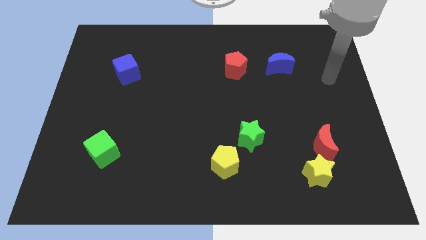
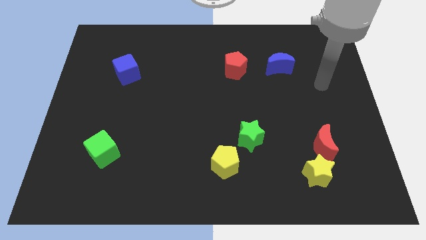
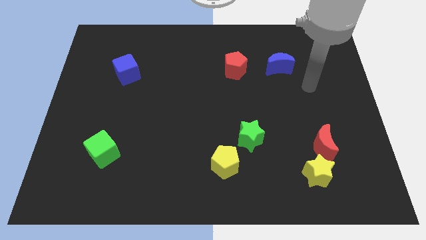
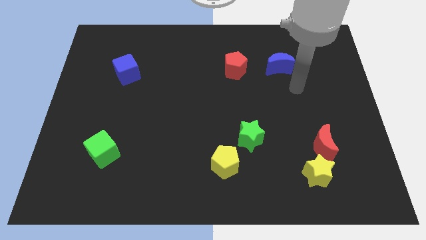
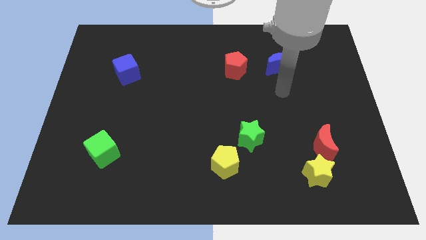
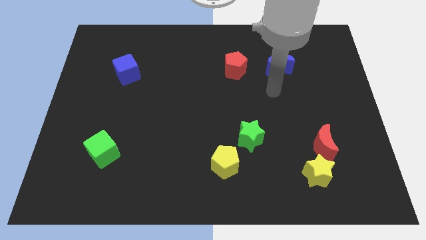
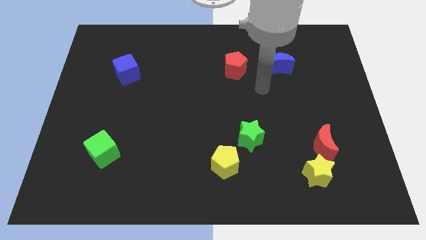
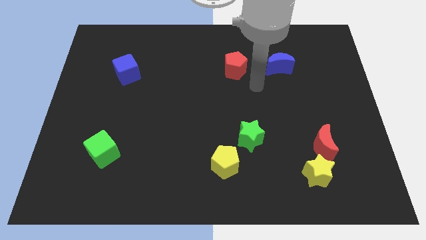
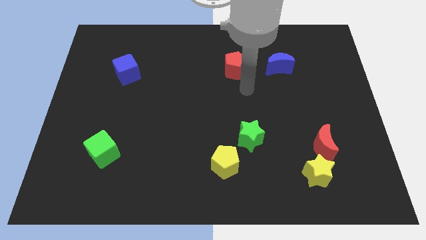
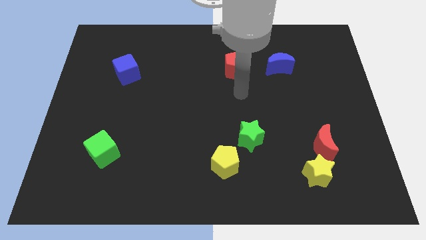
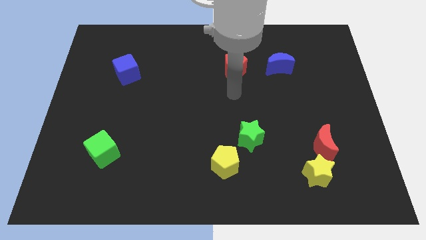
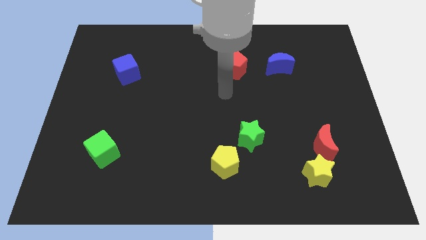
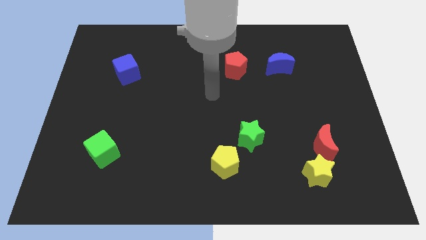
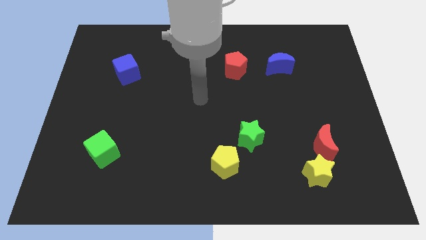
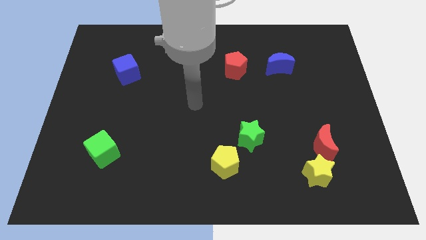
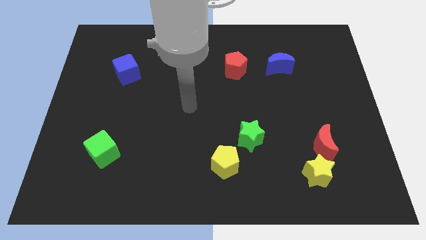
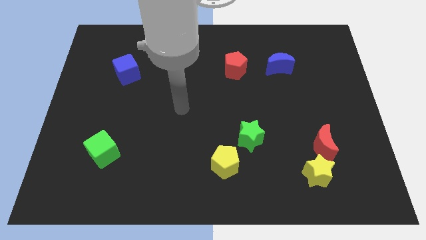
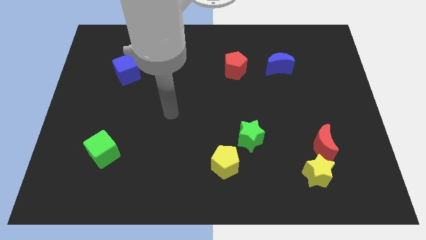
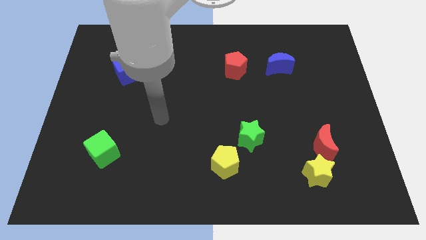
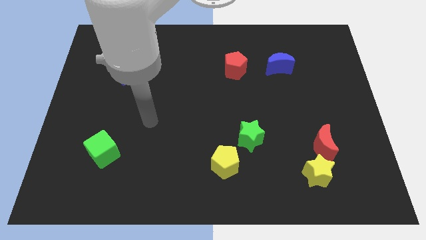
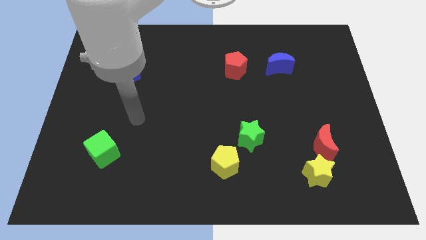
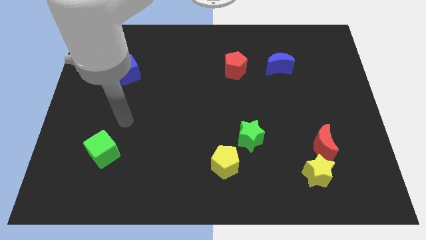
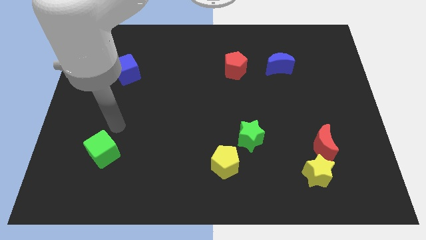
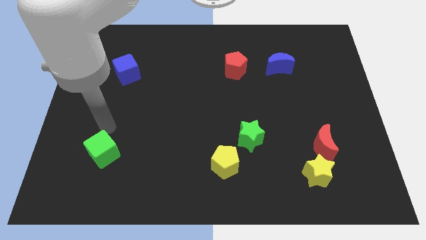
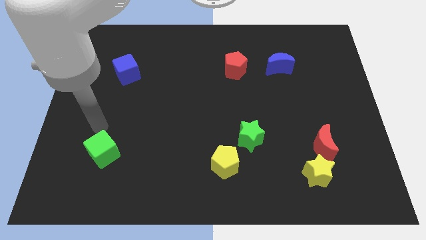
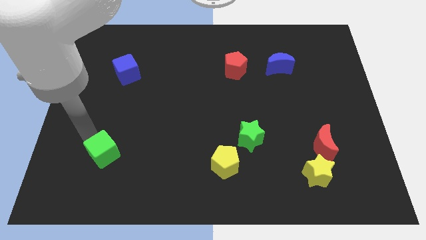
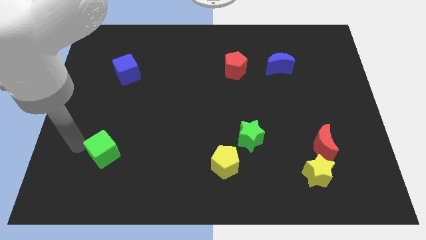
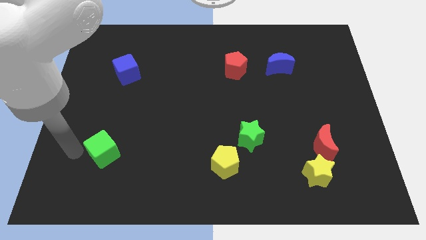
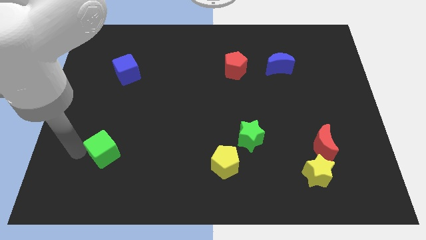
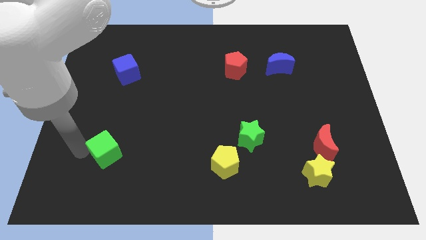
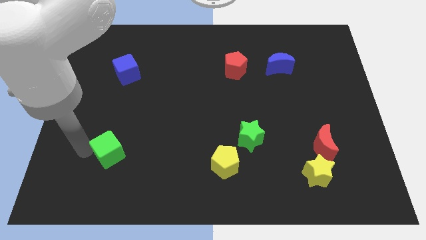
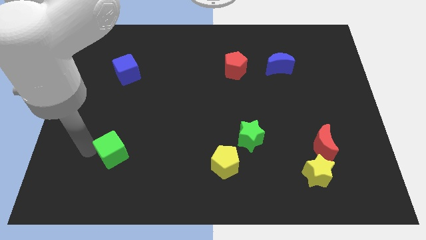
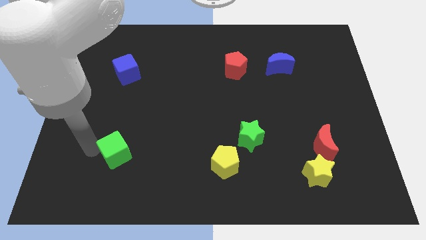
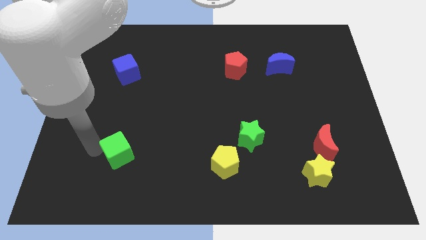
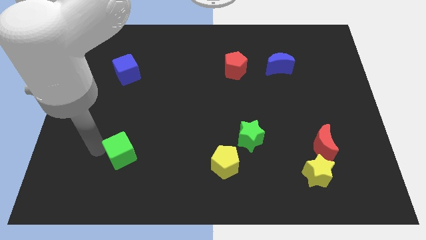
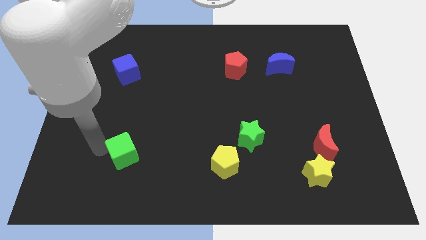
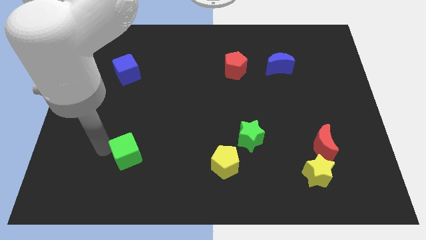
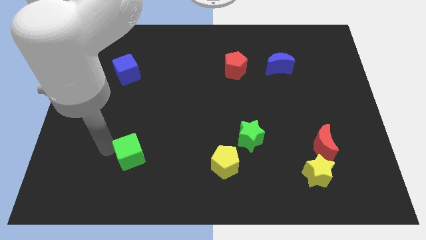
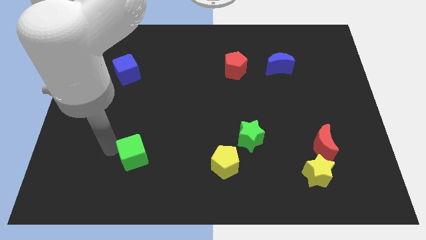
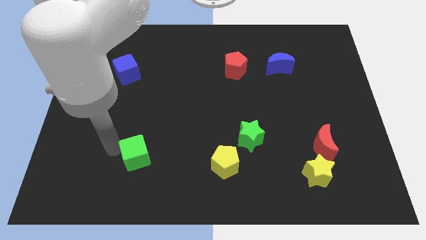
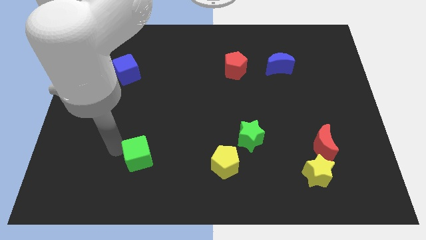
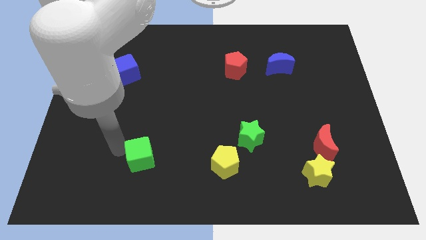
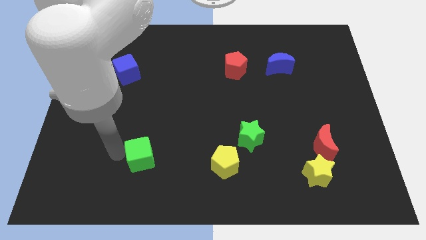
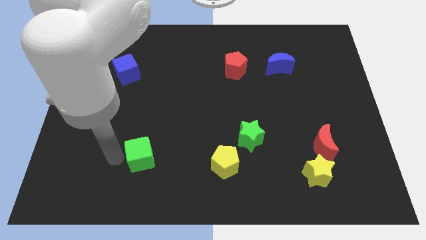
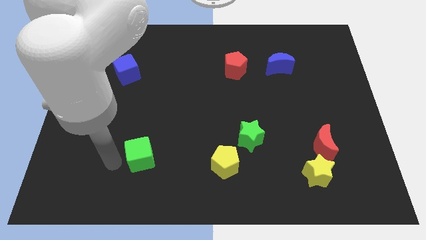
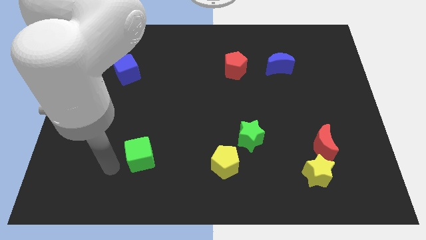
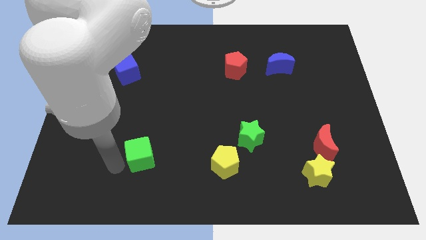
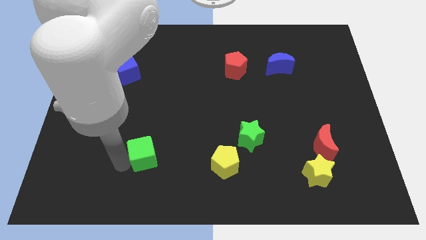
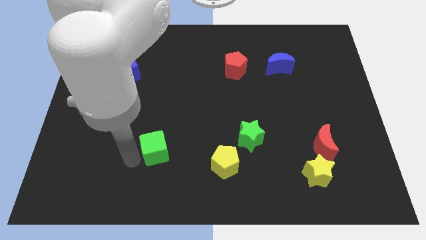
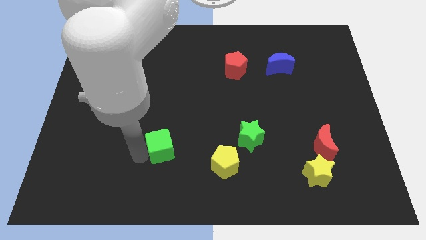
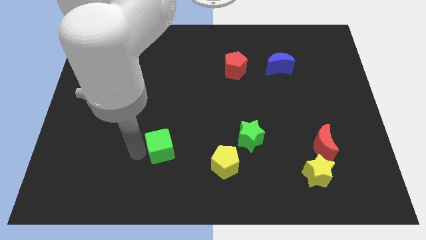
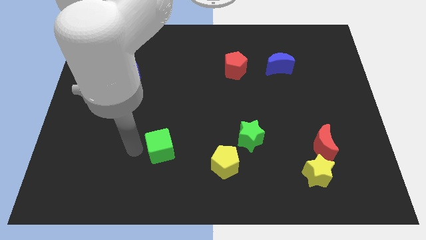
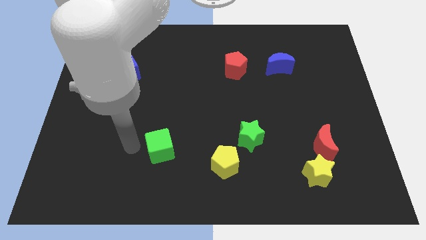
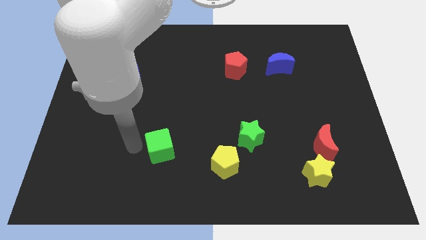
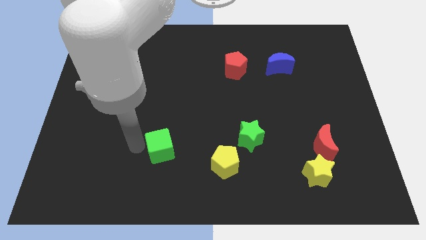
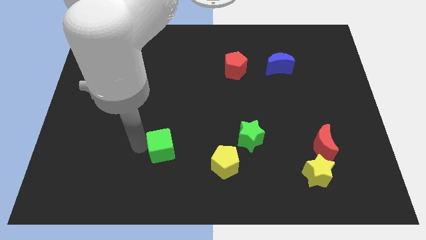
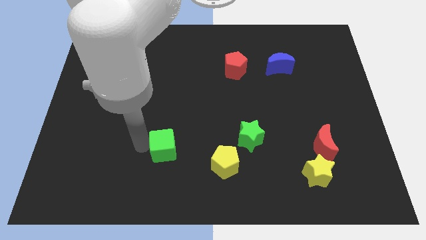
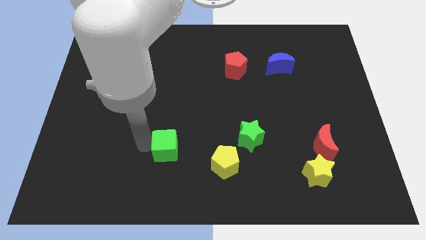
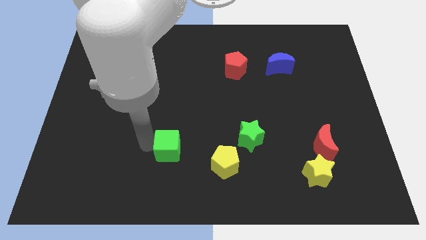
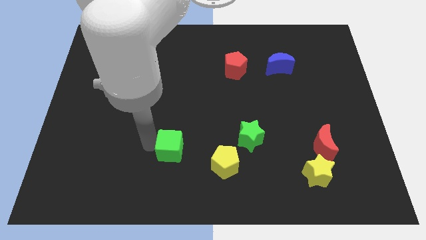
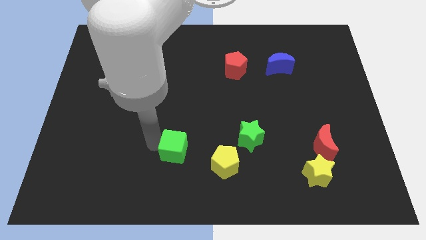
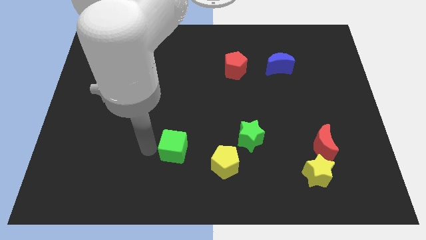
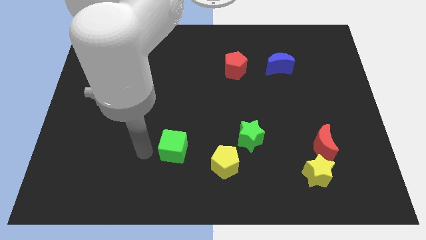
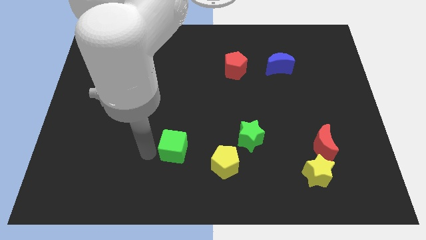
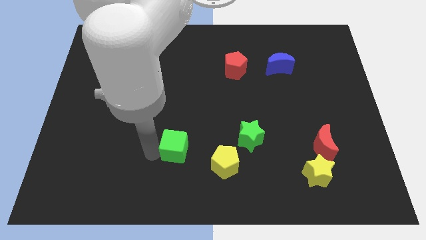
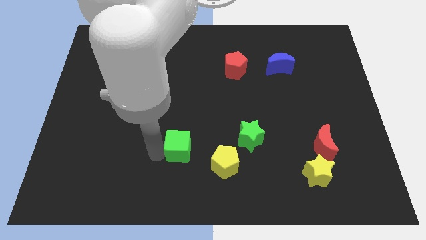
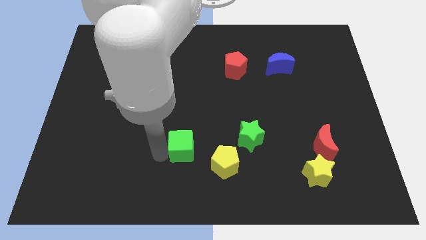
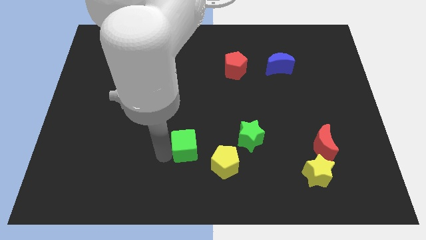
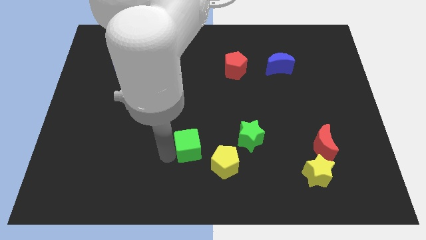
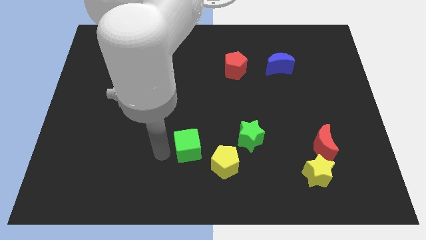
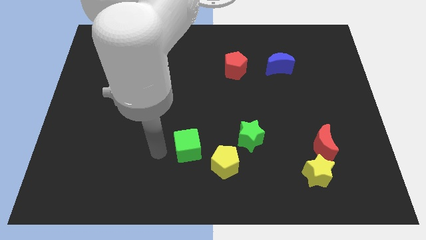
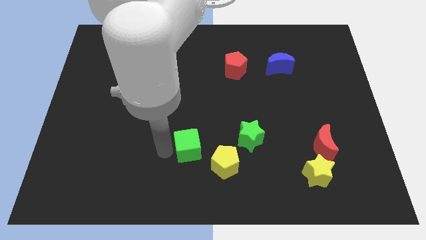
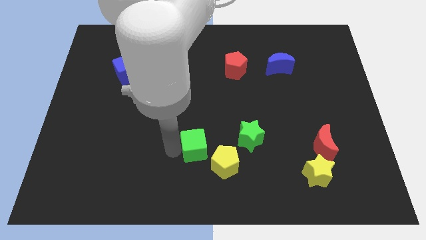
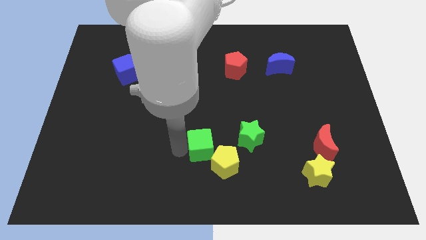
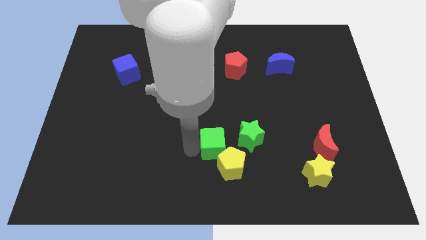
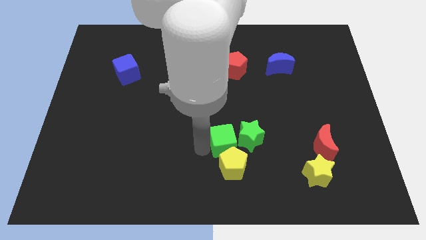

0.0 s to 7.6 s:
move the green cube next to the green star
